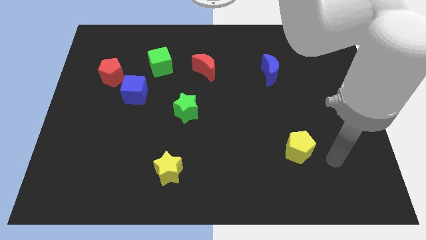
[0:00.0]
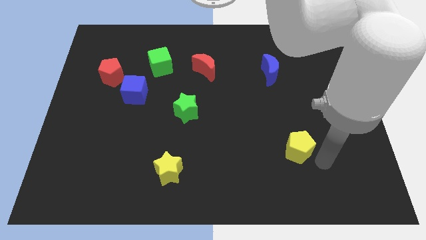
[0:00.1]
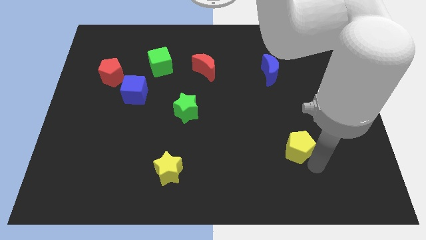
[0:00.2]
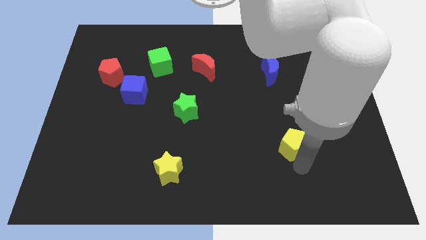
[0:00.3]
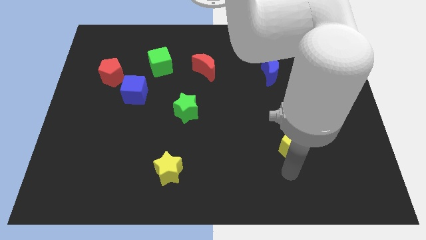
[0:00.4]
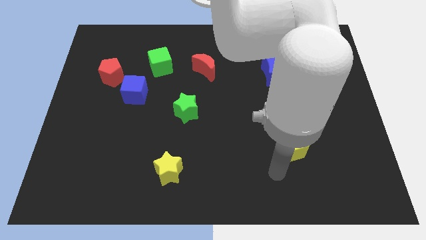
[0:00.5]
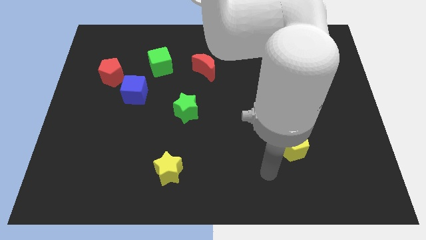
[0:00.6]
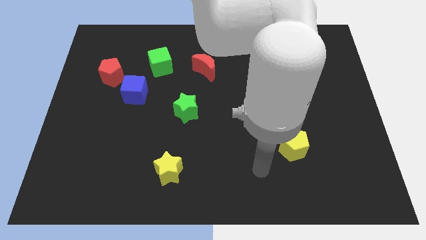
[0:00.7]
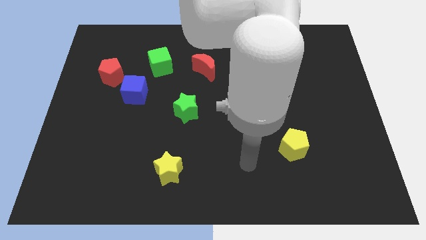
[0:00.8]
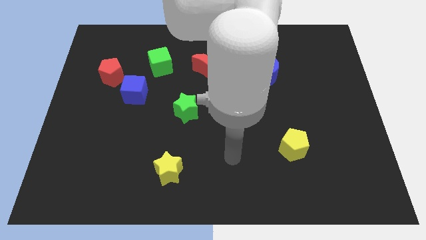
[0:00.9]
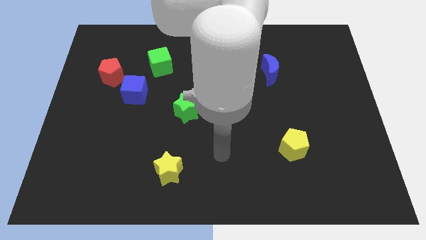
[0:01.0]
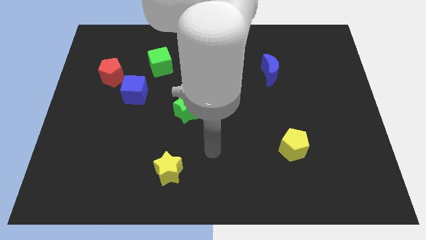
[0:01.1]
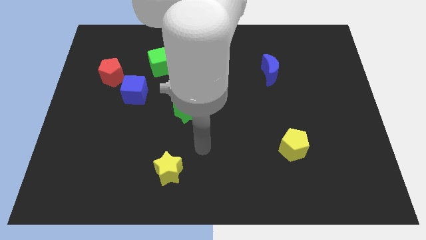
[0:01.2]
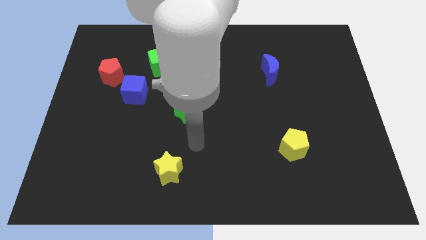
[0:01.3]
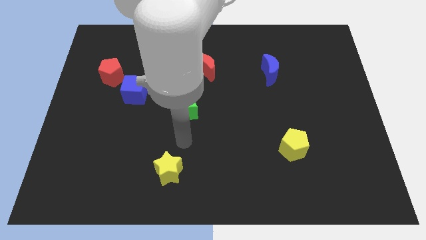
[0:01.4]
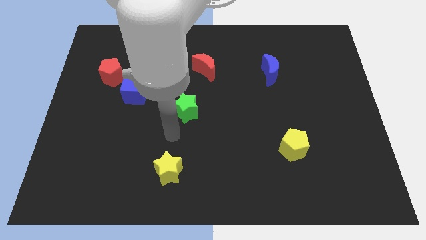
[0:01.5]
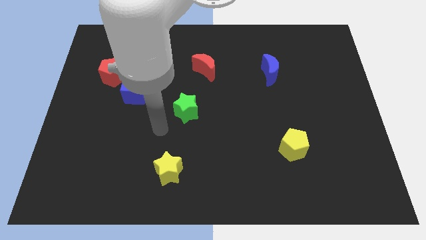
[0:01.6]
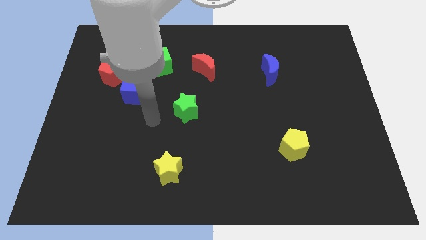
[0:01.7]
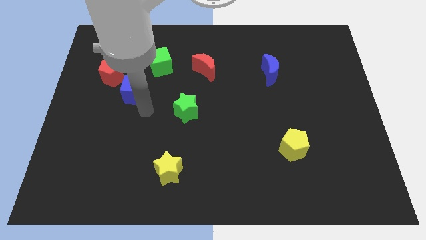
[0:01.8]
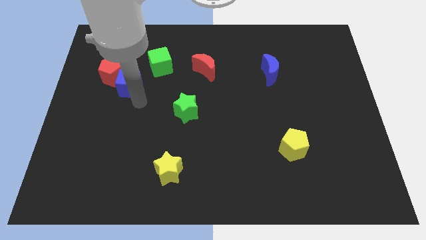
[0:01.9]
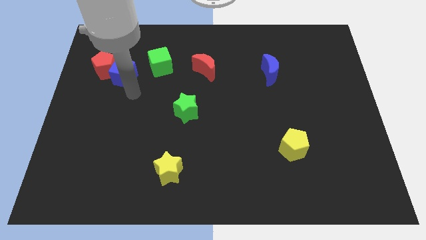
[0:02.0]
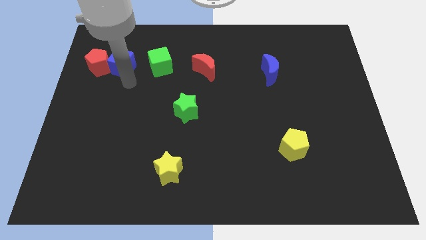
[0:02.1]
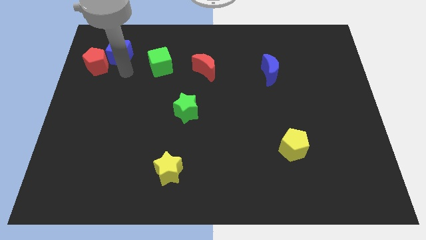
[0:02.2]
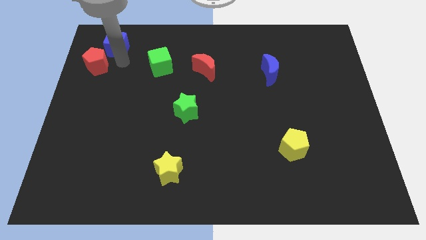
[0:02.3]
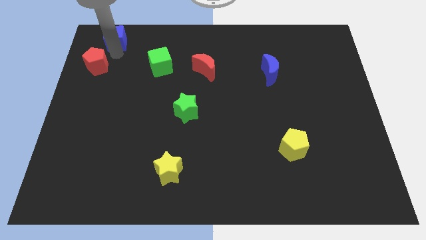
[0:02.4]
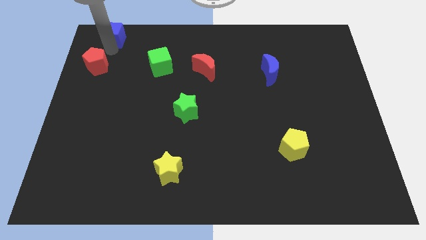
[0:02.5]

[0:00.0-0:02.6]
move the red pentagon away from the blue cube

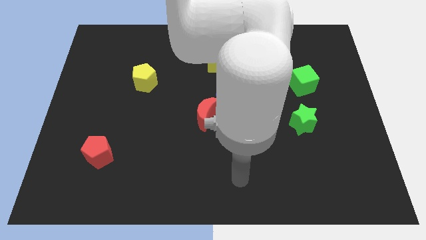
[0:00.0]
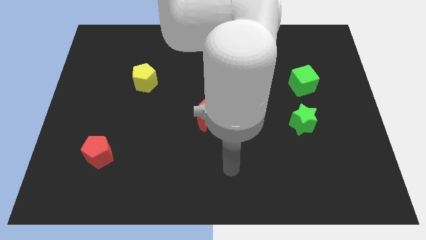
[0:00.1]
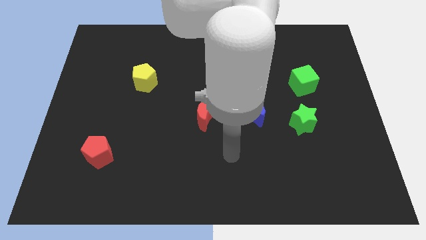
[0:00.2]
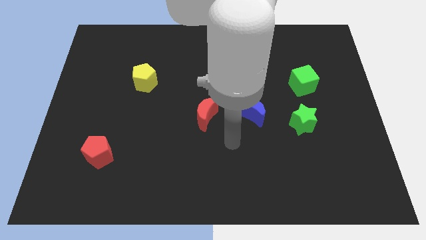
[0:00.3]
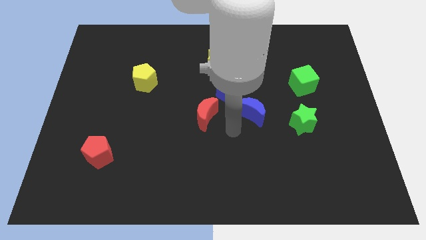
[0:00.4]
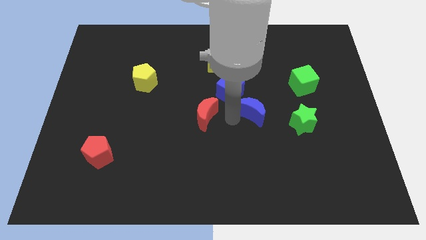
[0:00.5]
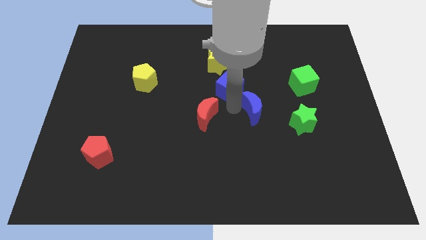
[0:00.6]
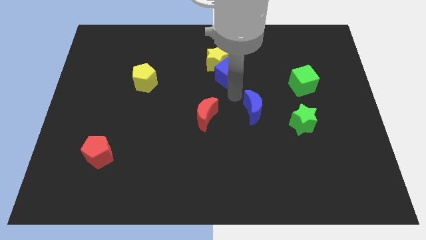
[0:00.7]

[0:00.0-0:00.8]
separate the blue moon from the blue cube

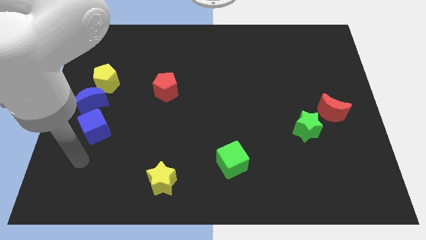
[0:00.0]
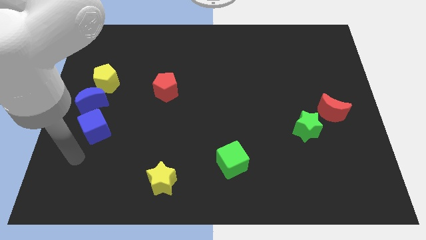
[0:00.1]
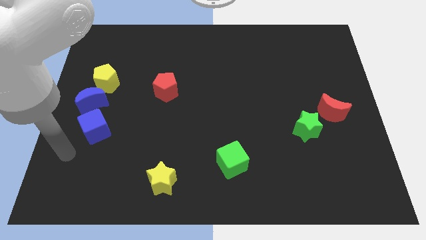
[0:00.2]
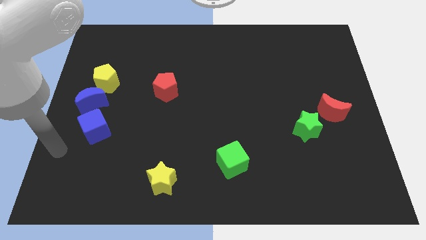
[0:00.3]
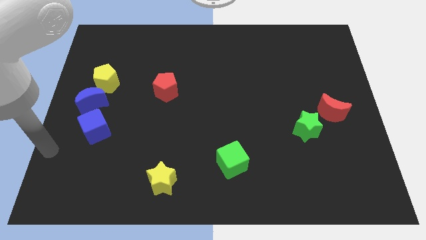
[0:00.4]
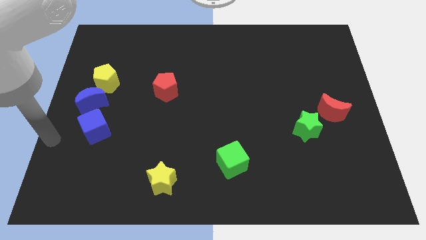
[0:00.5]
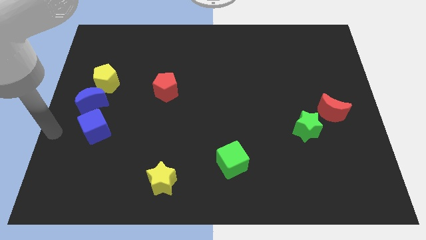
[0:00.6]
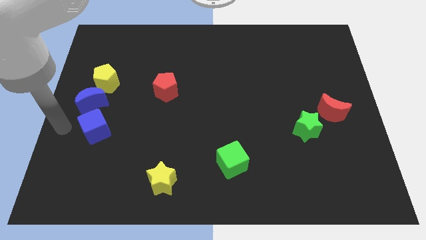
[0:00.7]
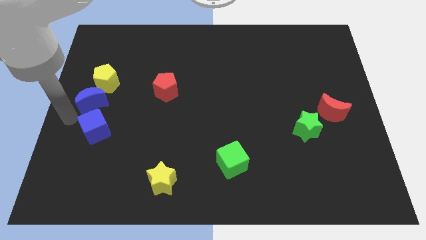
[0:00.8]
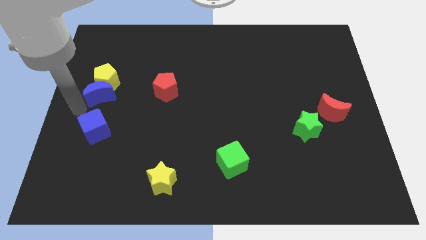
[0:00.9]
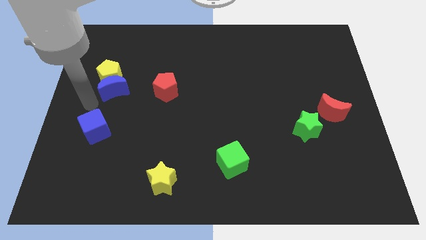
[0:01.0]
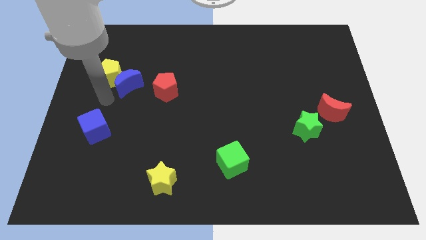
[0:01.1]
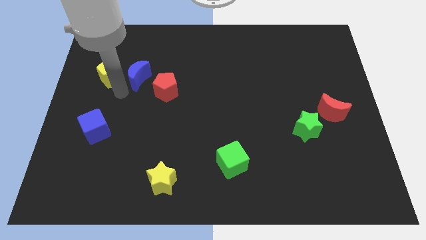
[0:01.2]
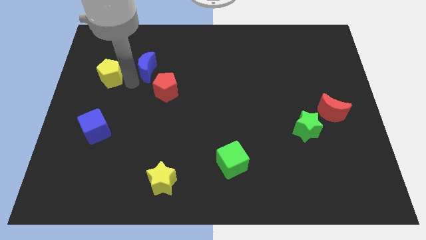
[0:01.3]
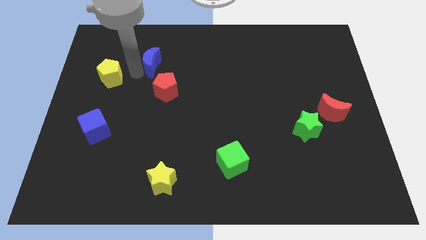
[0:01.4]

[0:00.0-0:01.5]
pull the yellow pentagon apart from the blue moon

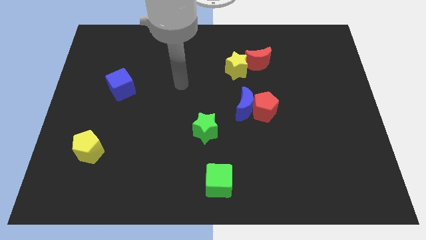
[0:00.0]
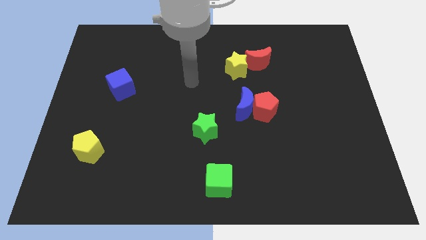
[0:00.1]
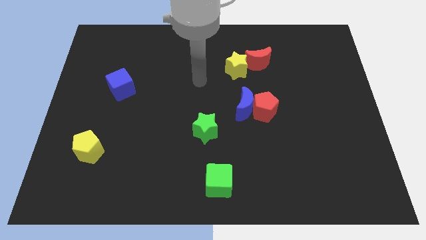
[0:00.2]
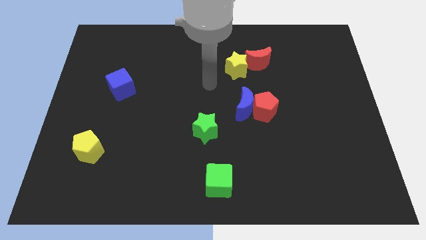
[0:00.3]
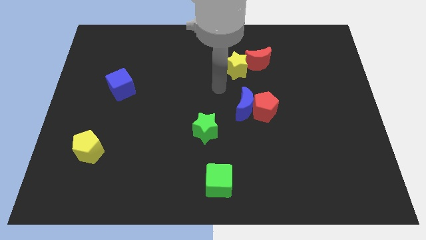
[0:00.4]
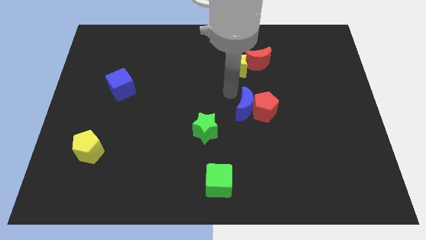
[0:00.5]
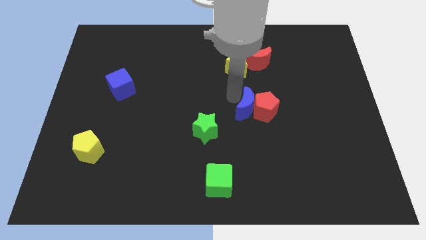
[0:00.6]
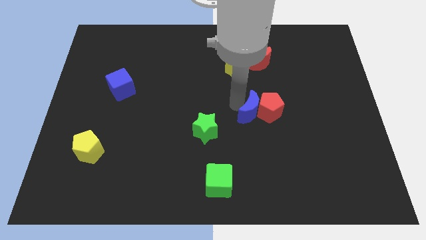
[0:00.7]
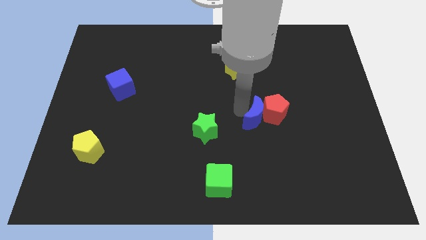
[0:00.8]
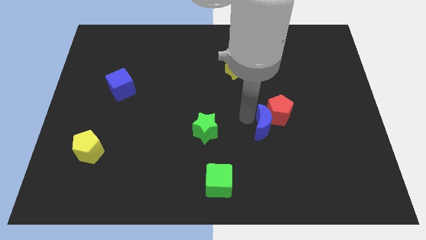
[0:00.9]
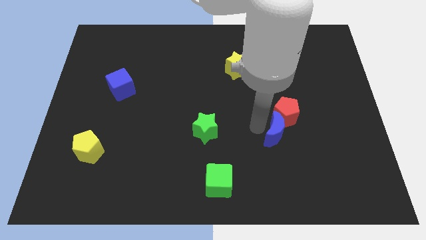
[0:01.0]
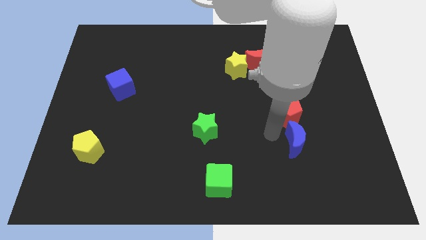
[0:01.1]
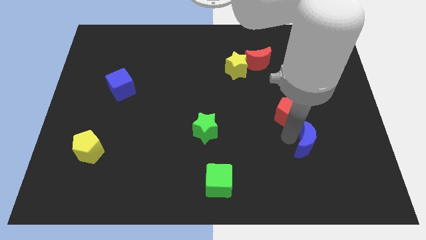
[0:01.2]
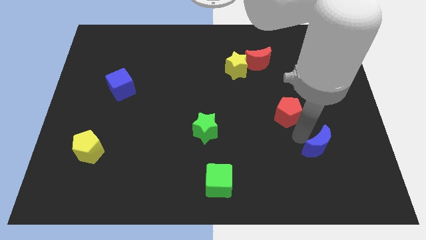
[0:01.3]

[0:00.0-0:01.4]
move the red pentagon away from the blue moon

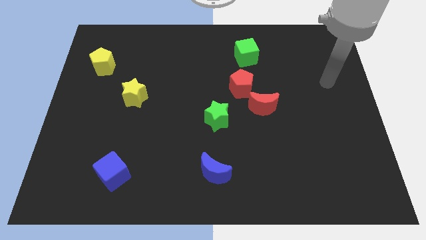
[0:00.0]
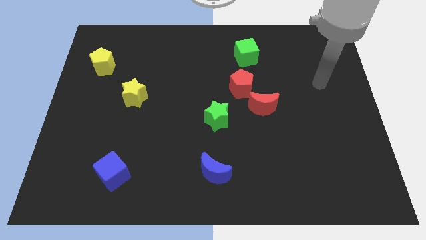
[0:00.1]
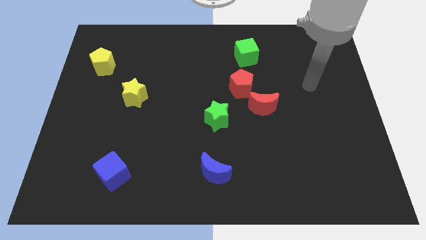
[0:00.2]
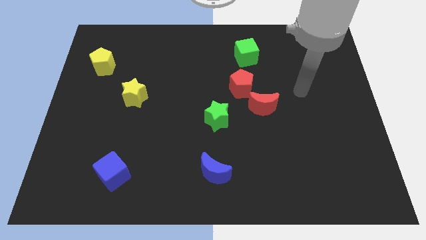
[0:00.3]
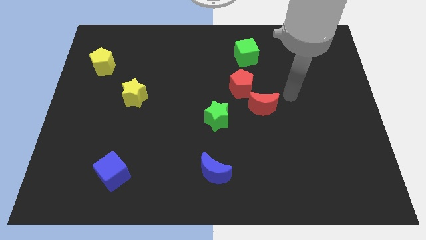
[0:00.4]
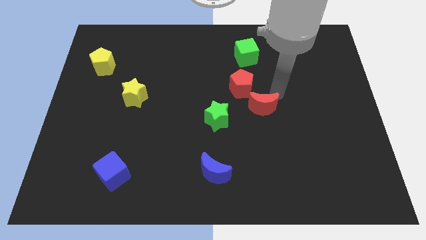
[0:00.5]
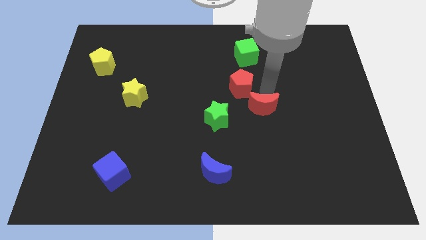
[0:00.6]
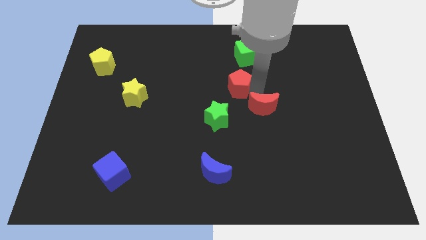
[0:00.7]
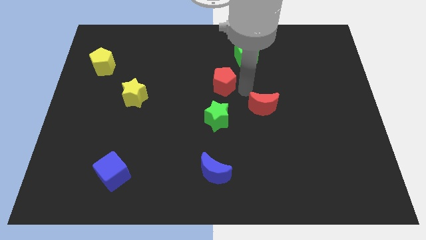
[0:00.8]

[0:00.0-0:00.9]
move the red moon away from the red pentagon

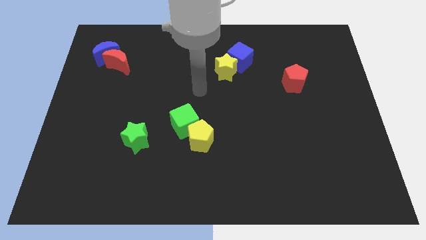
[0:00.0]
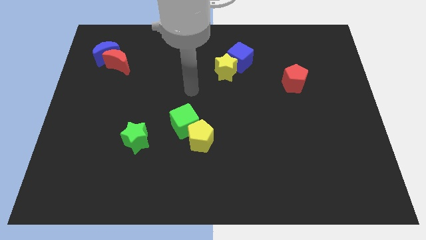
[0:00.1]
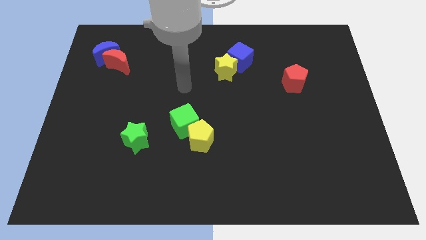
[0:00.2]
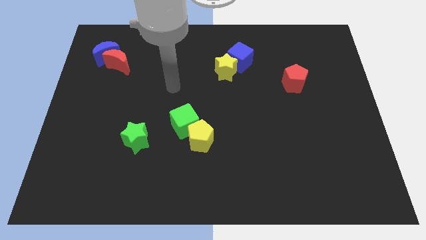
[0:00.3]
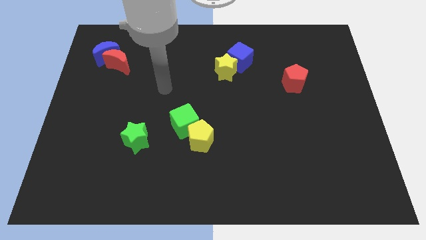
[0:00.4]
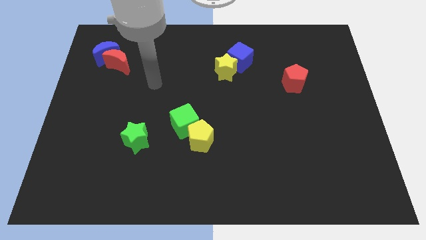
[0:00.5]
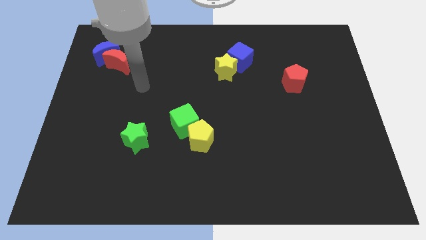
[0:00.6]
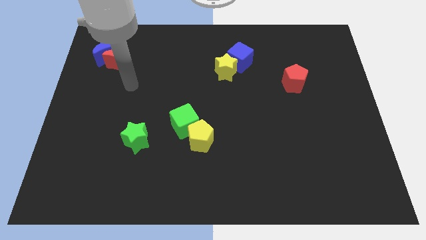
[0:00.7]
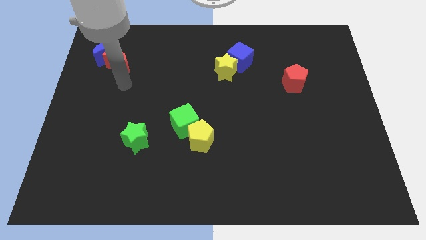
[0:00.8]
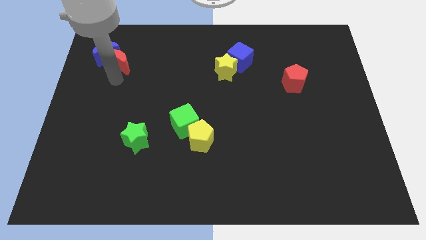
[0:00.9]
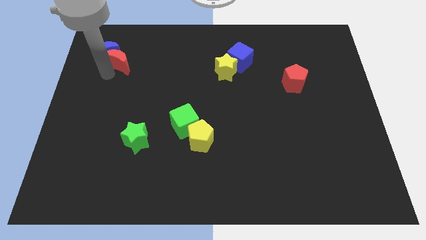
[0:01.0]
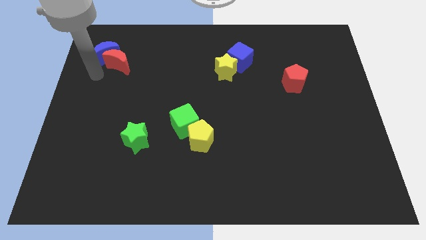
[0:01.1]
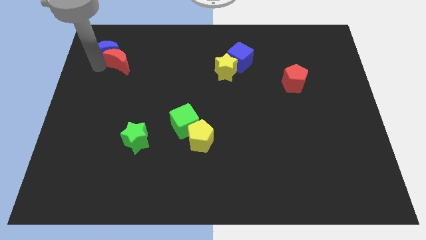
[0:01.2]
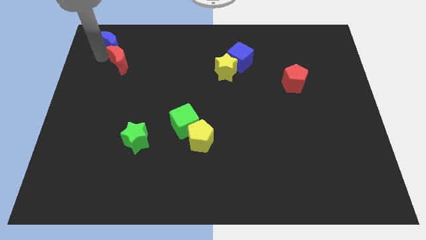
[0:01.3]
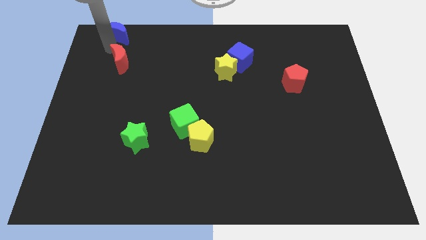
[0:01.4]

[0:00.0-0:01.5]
pull the red moon apart from the blue moon

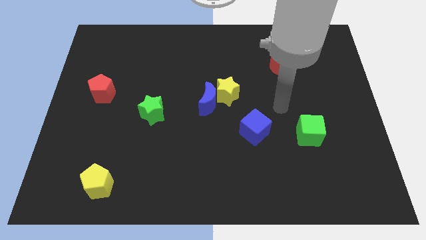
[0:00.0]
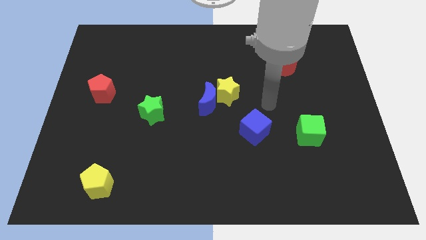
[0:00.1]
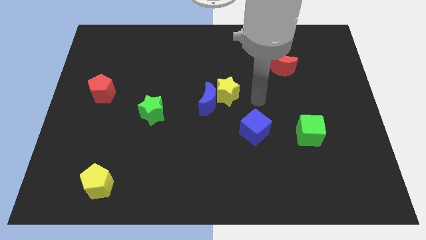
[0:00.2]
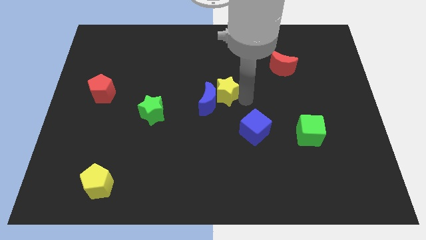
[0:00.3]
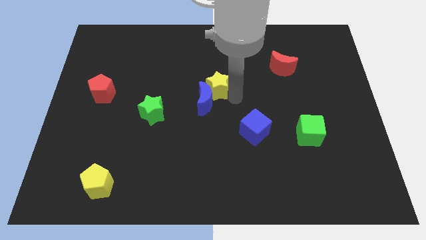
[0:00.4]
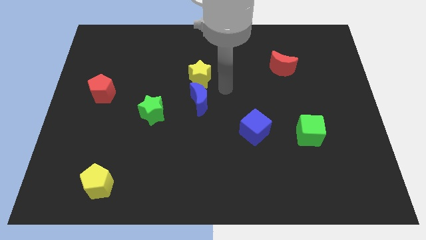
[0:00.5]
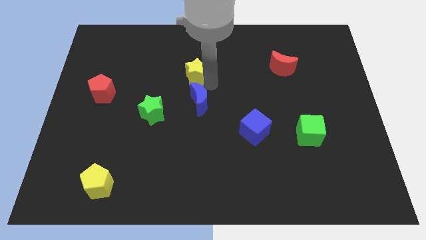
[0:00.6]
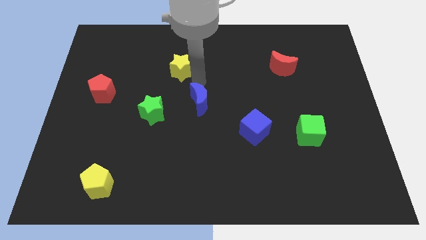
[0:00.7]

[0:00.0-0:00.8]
pull the blue moon apart from the yellow star
